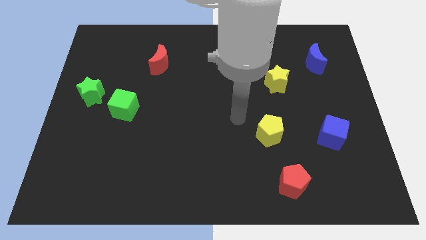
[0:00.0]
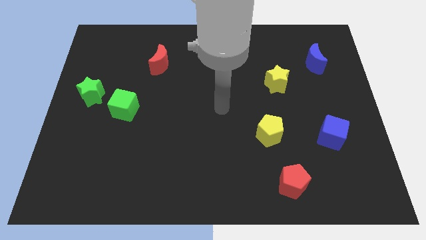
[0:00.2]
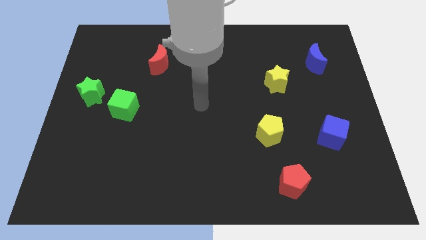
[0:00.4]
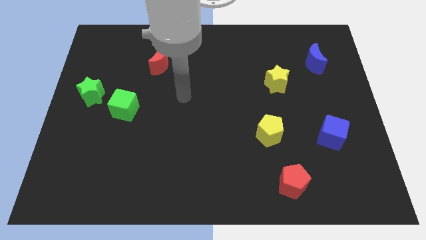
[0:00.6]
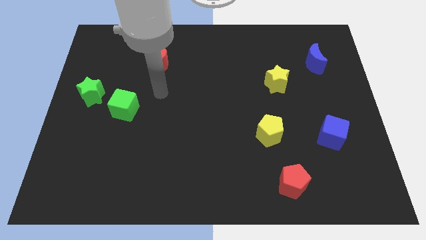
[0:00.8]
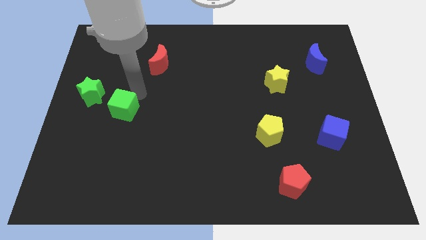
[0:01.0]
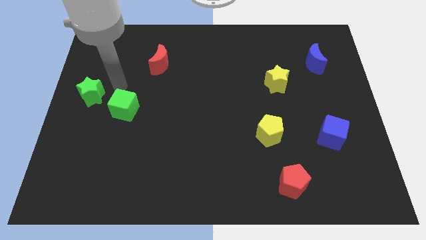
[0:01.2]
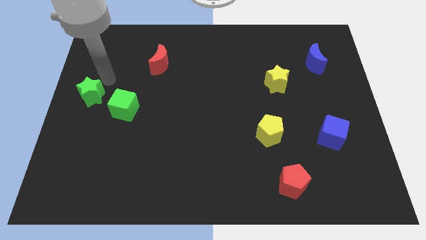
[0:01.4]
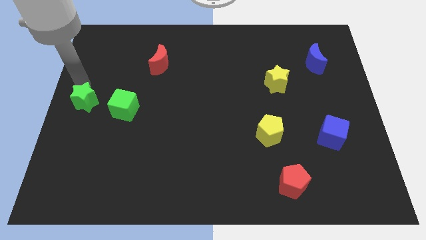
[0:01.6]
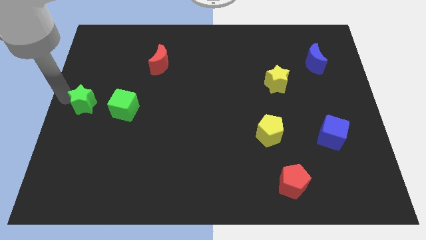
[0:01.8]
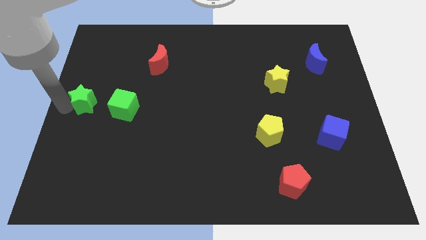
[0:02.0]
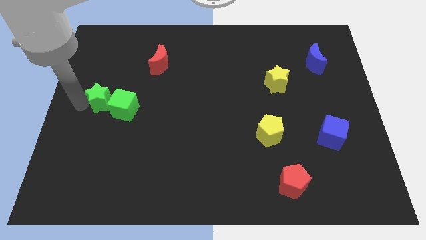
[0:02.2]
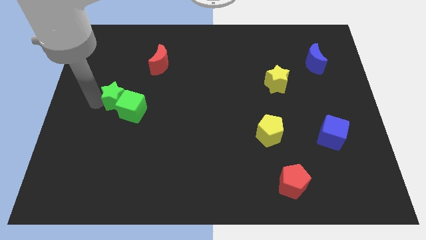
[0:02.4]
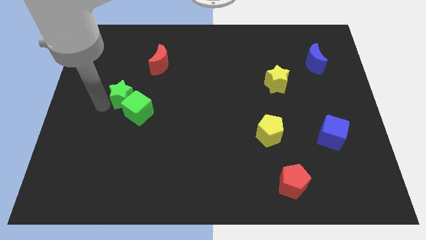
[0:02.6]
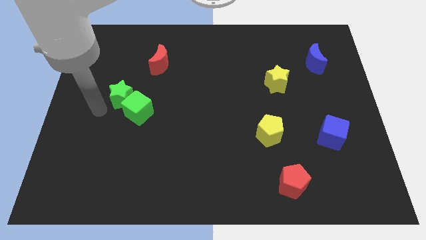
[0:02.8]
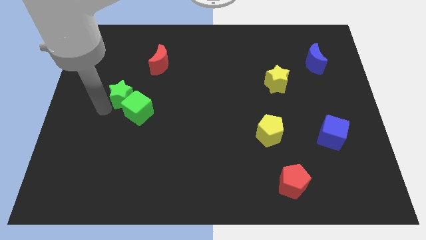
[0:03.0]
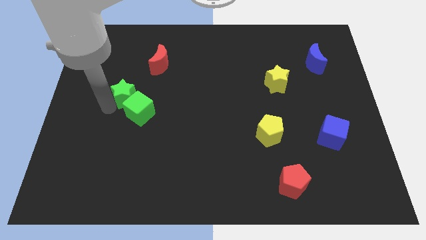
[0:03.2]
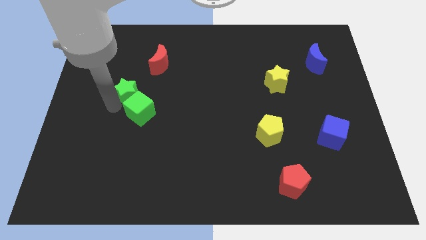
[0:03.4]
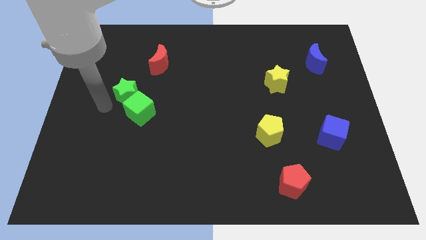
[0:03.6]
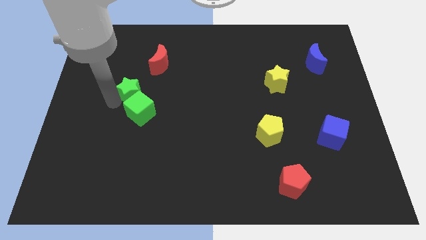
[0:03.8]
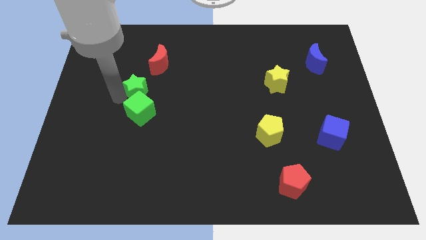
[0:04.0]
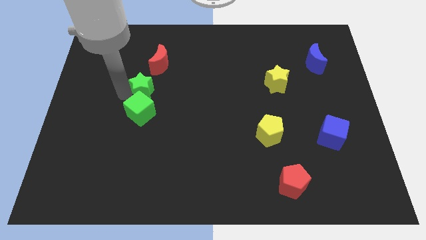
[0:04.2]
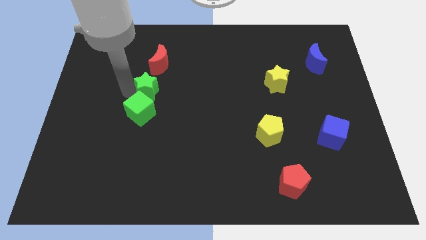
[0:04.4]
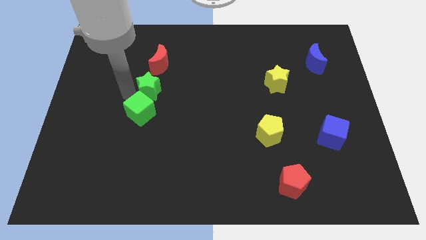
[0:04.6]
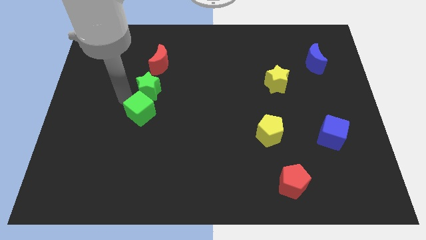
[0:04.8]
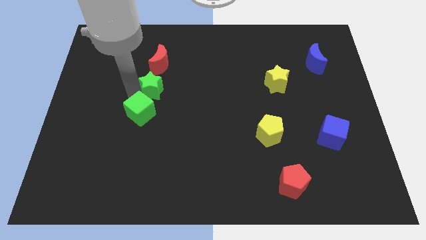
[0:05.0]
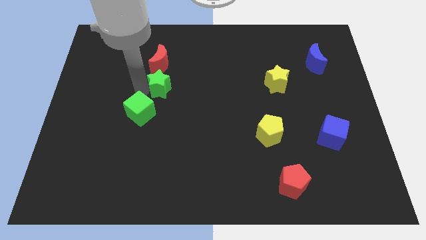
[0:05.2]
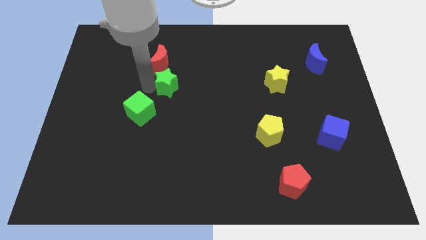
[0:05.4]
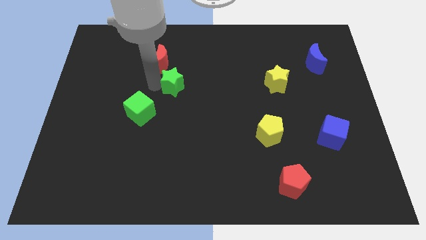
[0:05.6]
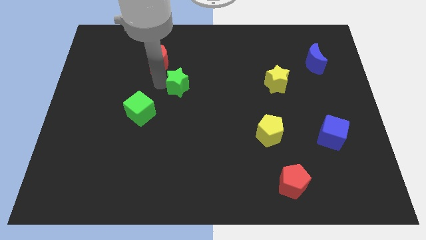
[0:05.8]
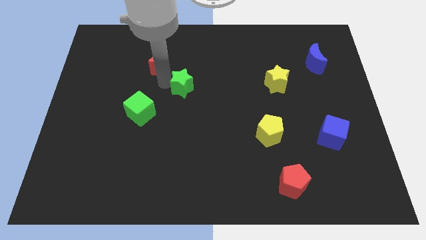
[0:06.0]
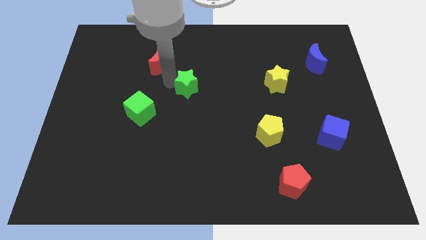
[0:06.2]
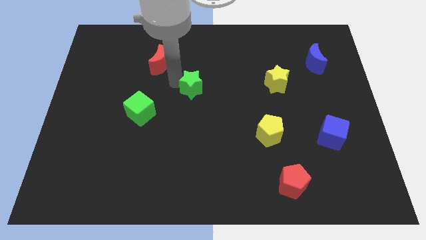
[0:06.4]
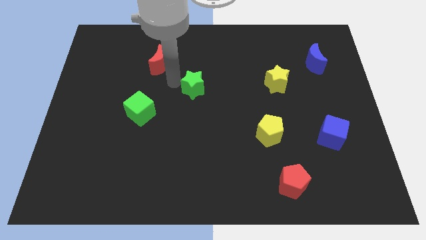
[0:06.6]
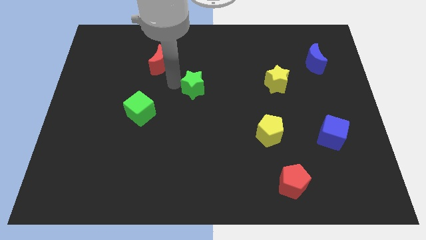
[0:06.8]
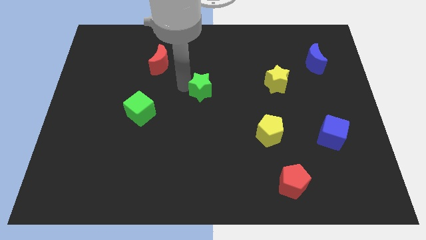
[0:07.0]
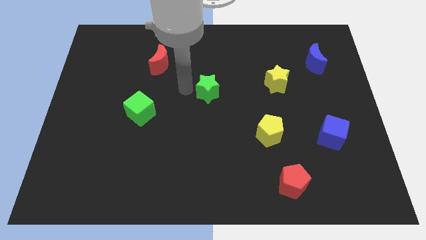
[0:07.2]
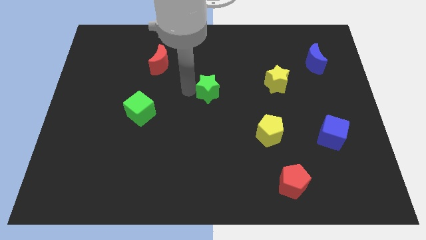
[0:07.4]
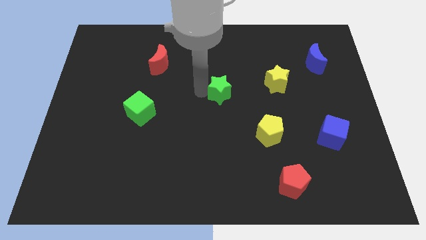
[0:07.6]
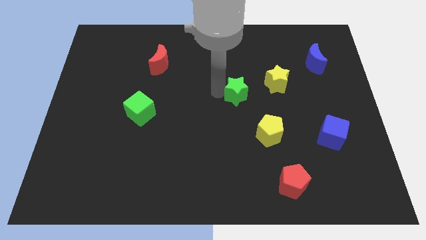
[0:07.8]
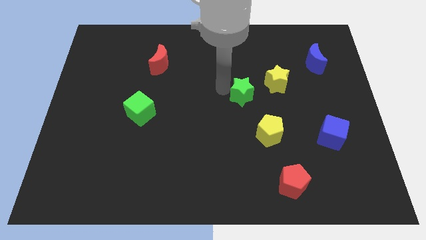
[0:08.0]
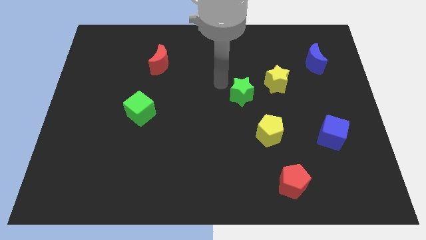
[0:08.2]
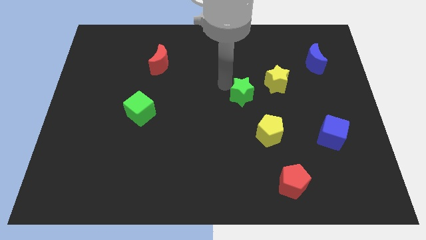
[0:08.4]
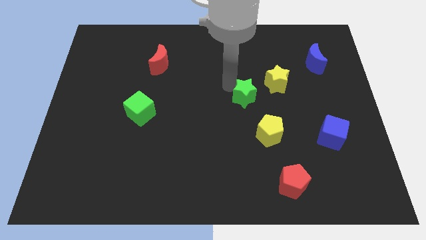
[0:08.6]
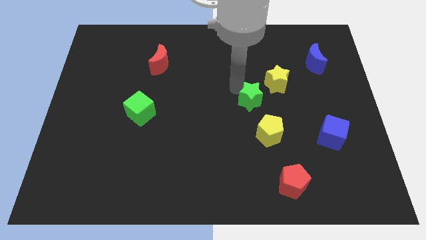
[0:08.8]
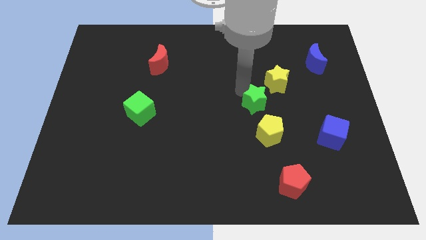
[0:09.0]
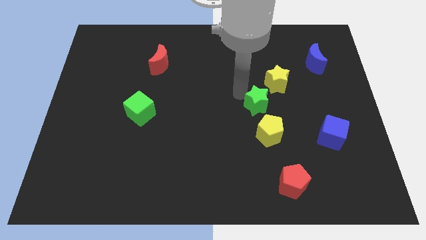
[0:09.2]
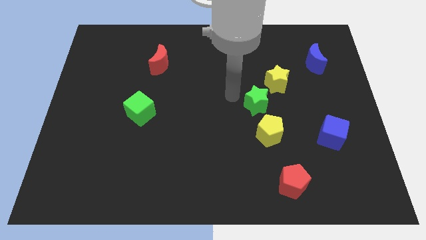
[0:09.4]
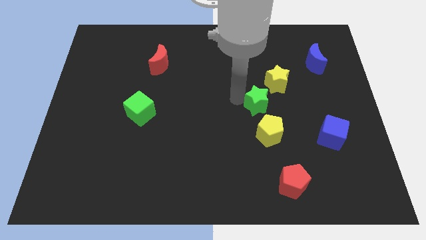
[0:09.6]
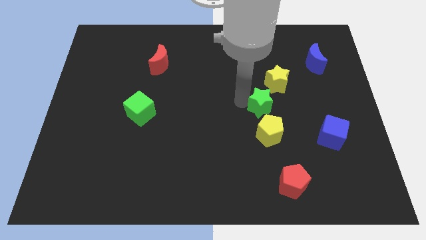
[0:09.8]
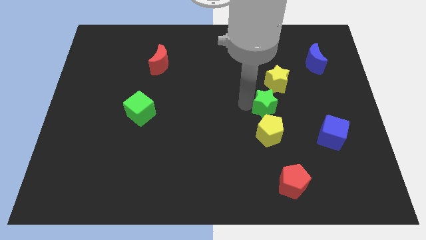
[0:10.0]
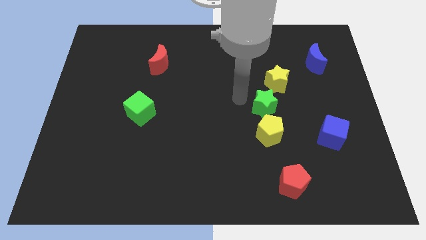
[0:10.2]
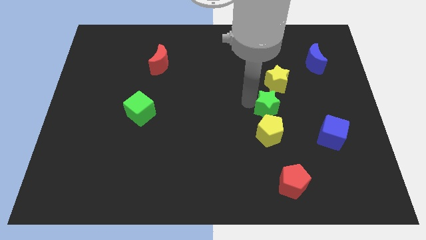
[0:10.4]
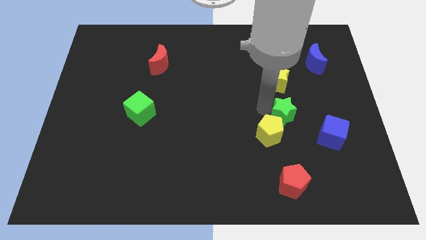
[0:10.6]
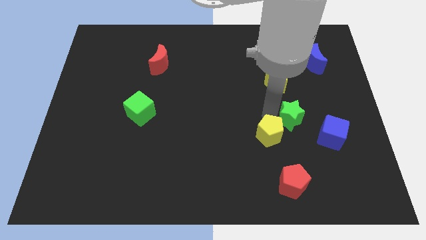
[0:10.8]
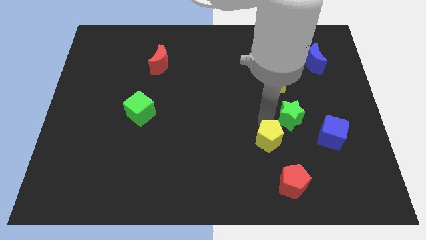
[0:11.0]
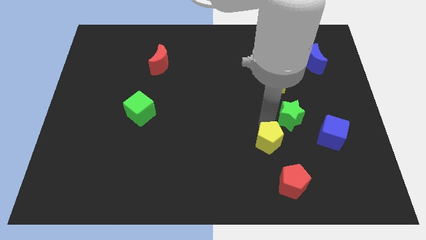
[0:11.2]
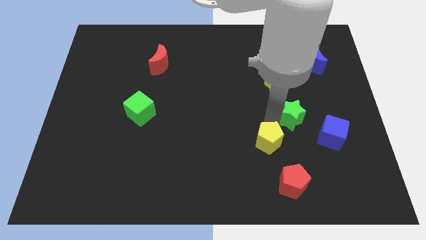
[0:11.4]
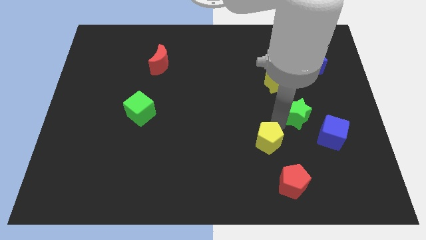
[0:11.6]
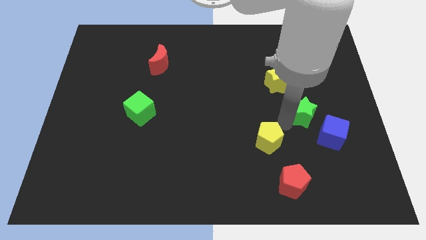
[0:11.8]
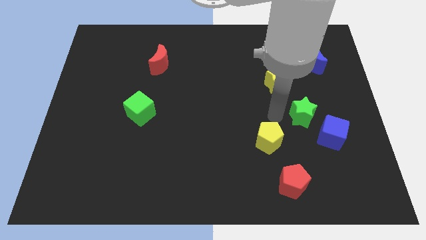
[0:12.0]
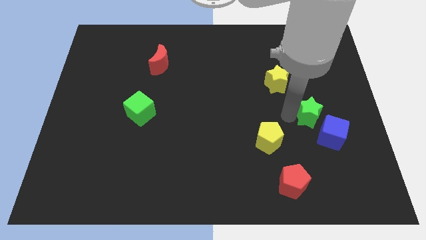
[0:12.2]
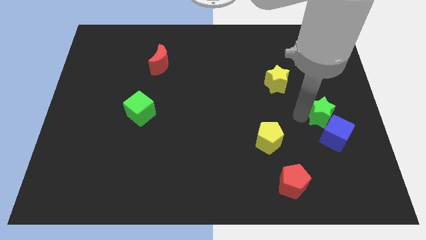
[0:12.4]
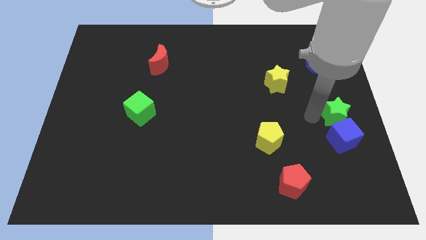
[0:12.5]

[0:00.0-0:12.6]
push the green star to the center right

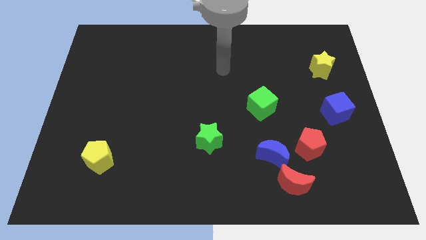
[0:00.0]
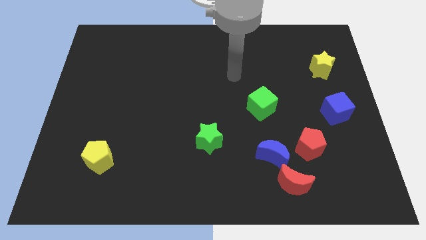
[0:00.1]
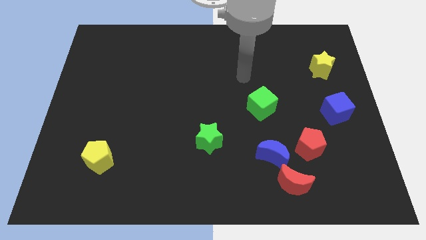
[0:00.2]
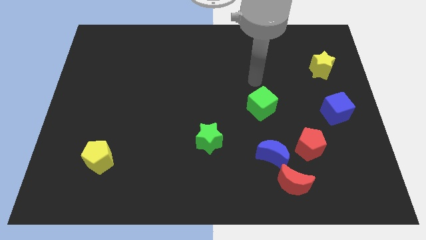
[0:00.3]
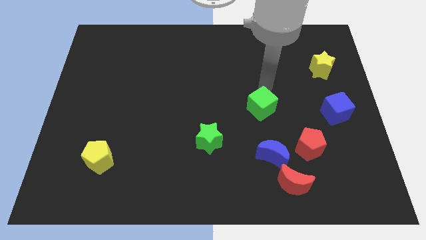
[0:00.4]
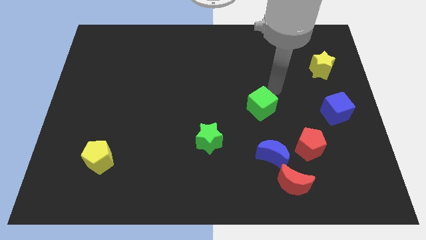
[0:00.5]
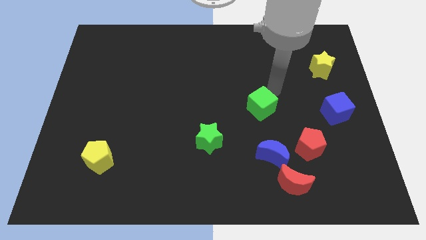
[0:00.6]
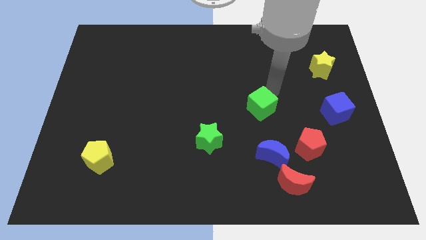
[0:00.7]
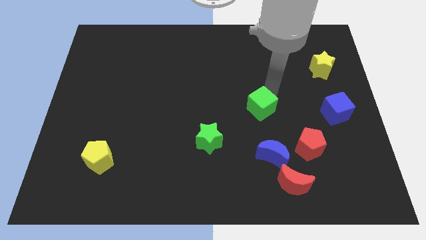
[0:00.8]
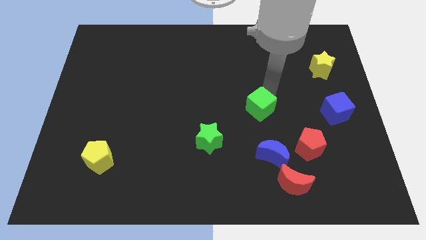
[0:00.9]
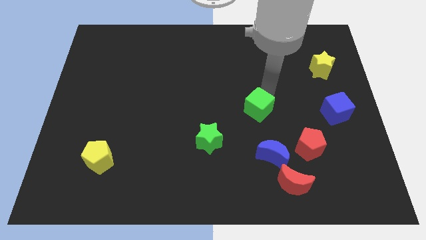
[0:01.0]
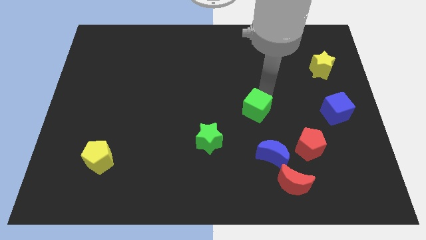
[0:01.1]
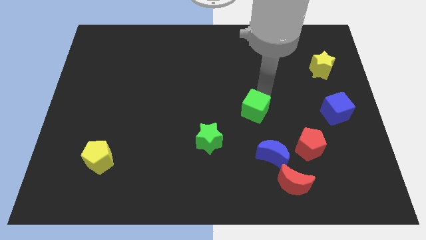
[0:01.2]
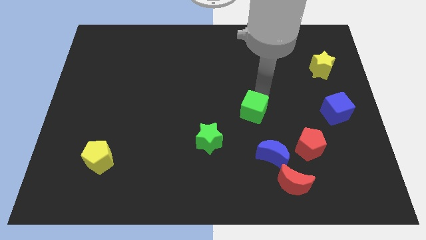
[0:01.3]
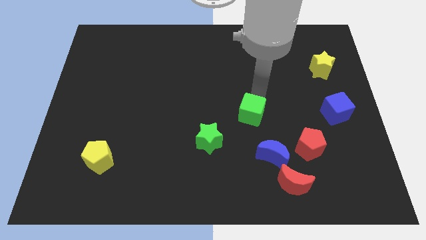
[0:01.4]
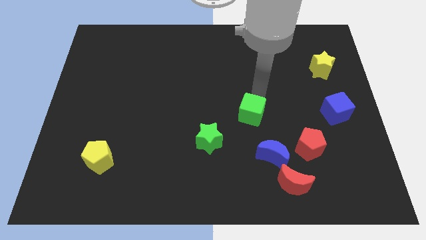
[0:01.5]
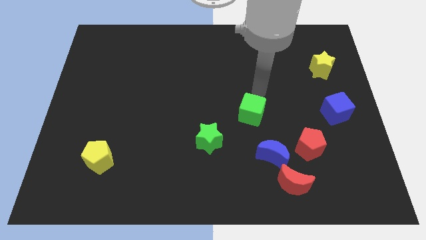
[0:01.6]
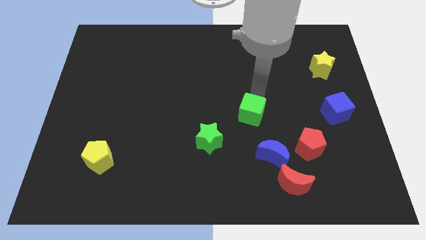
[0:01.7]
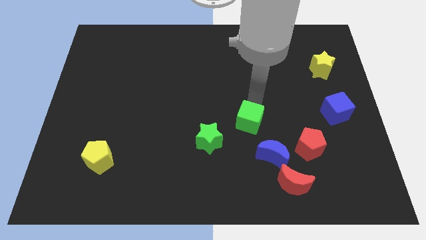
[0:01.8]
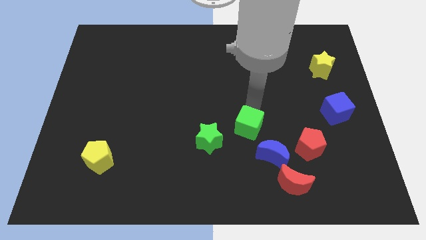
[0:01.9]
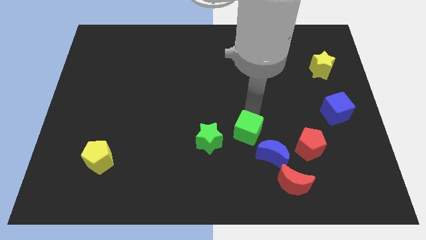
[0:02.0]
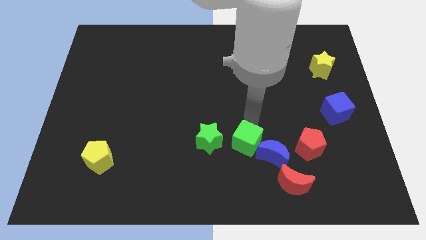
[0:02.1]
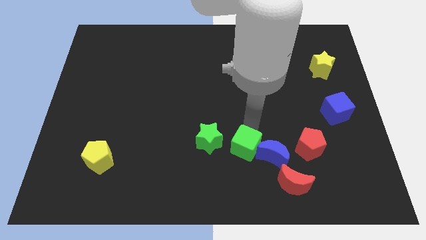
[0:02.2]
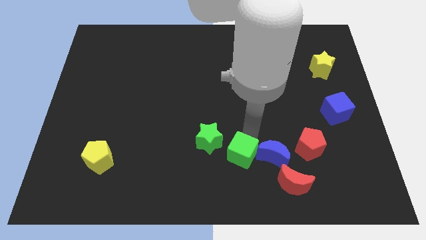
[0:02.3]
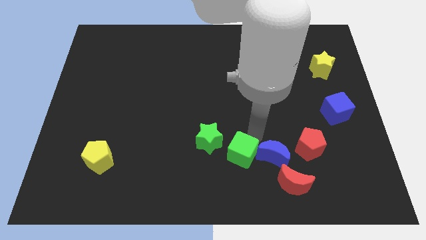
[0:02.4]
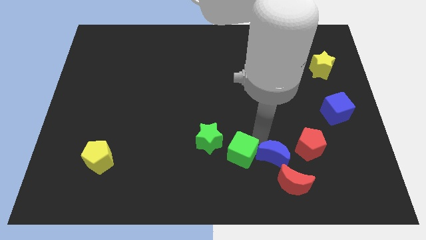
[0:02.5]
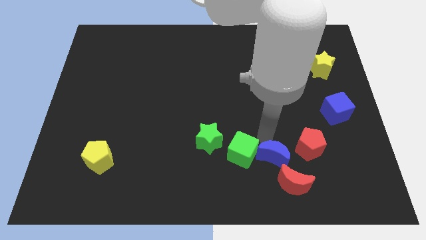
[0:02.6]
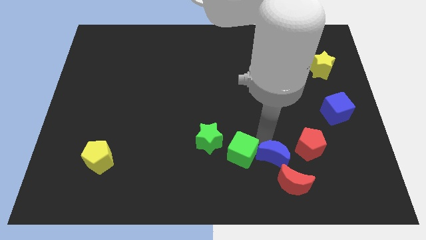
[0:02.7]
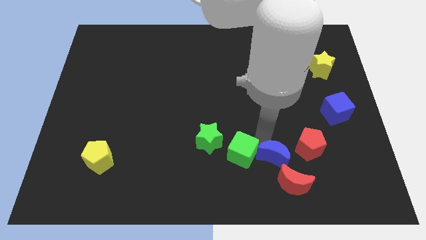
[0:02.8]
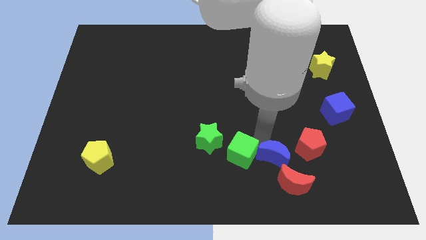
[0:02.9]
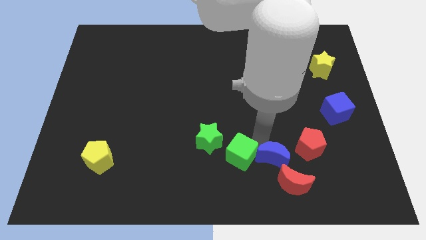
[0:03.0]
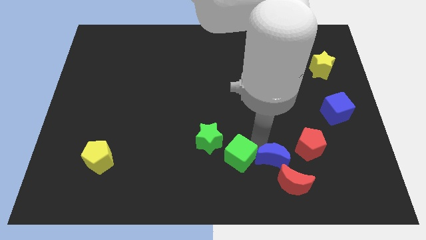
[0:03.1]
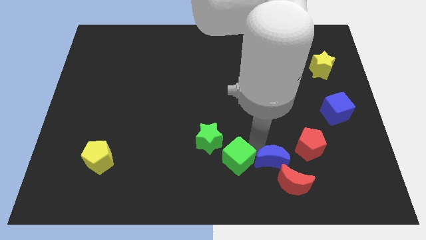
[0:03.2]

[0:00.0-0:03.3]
slide the green cube to the bottom
